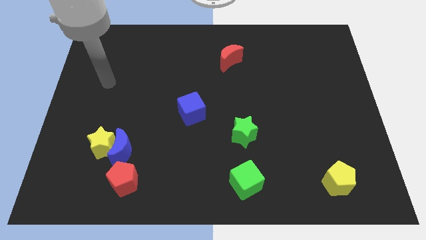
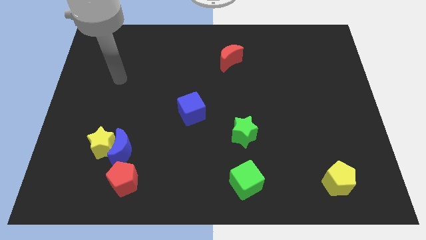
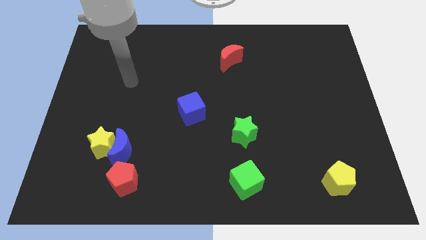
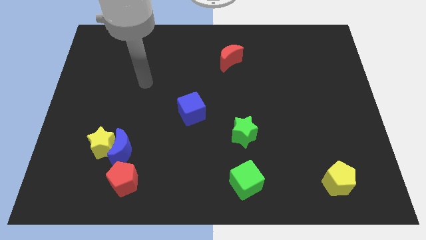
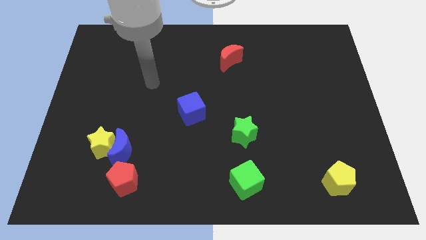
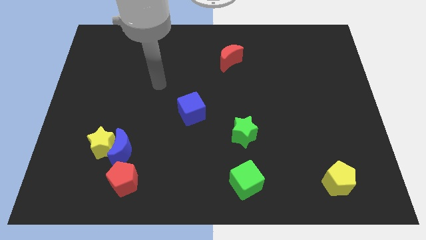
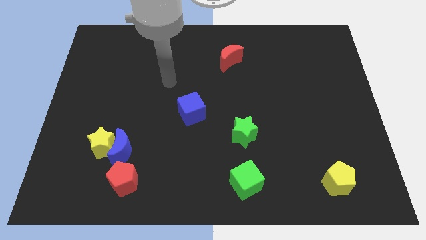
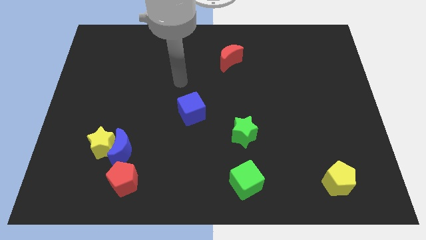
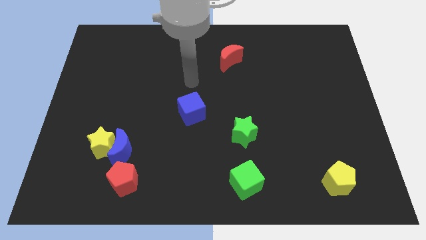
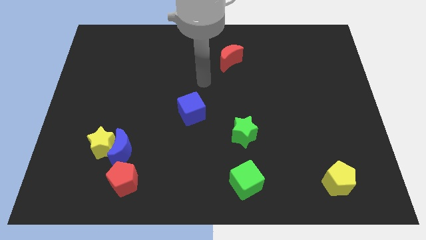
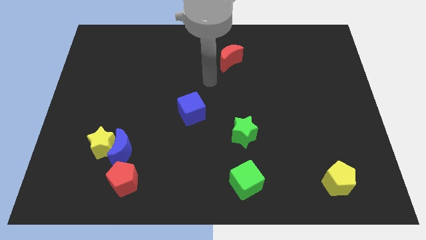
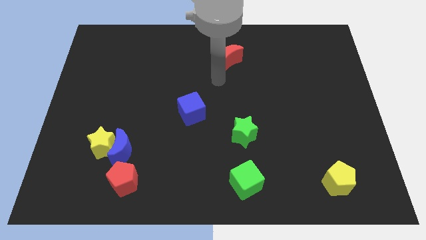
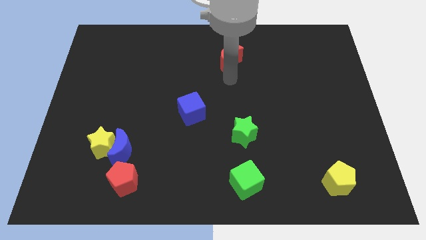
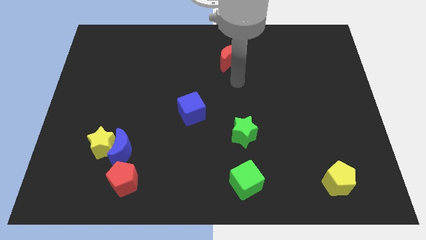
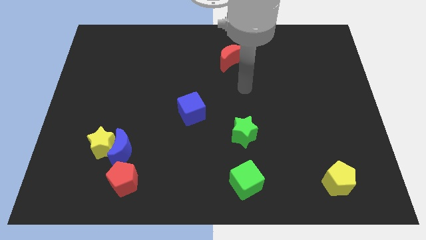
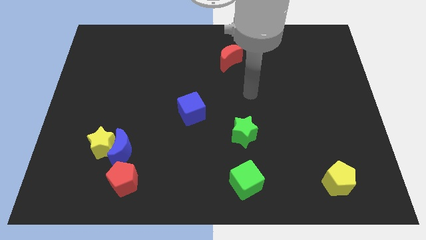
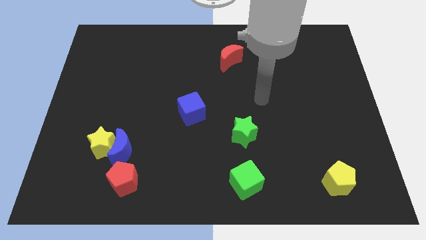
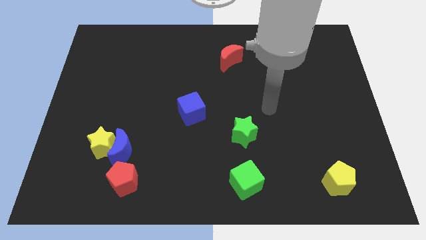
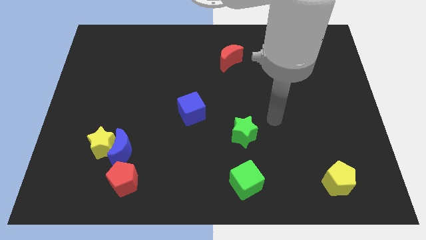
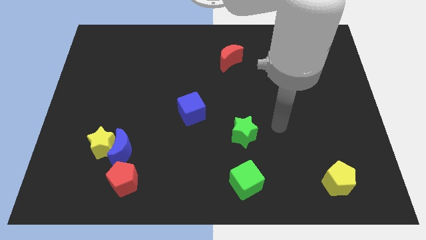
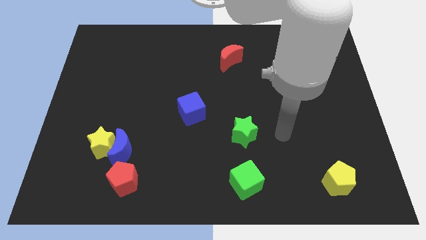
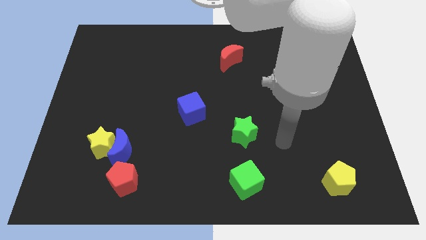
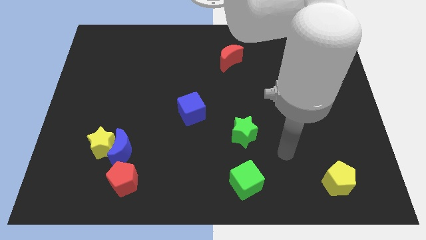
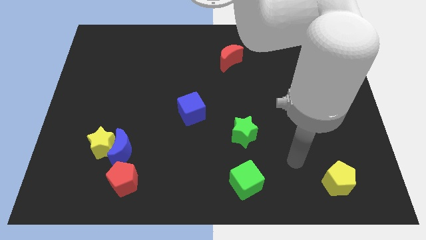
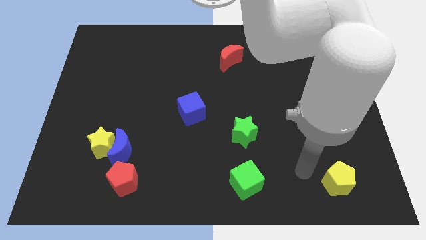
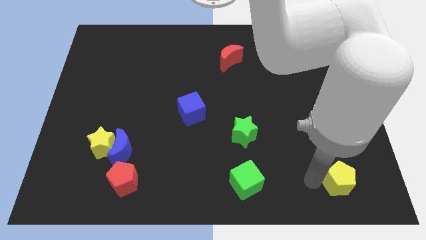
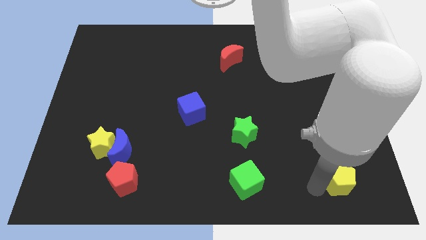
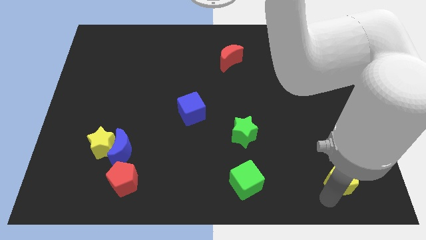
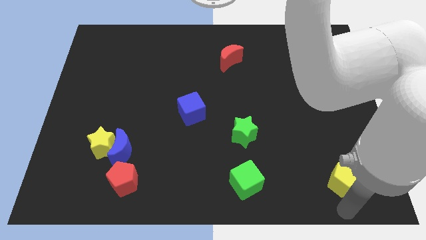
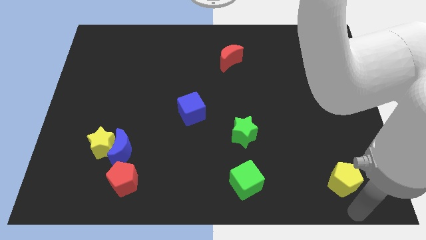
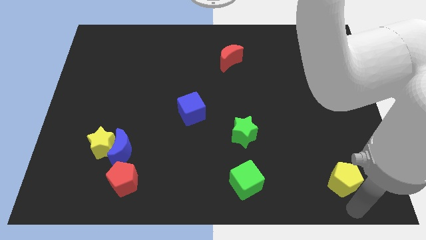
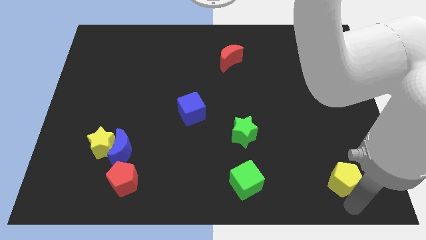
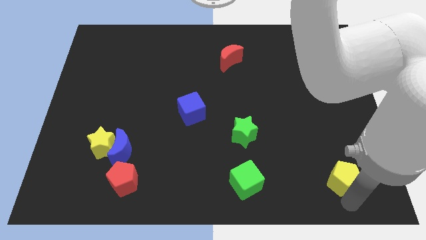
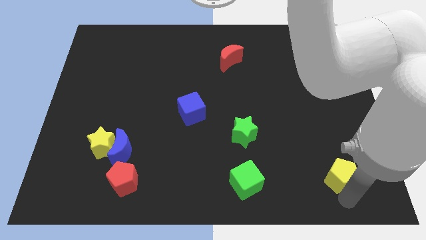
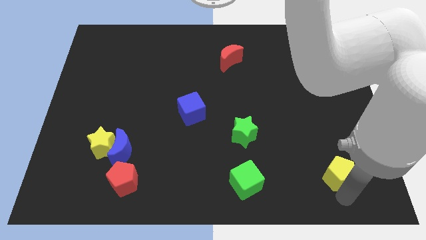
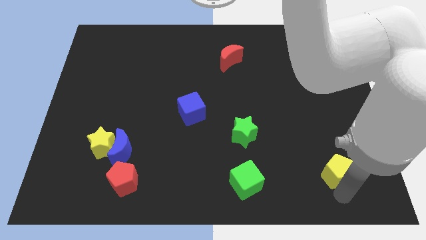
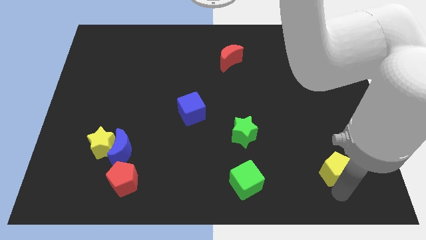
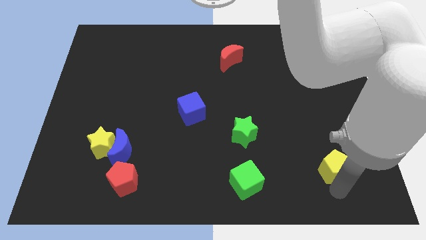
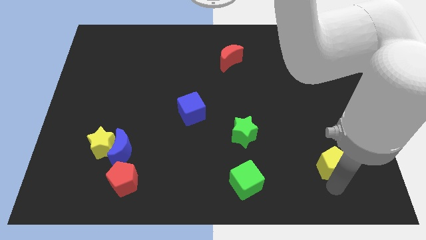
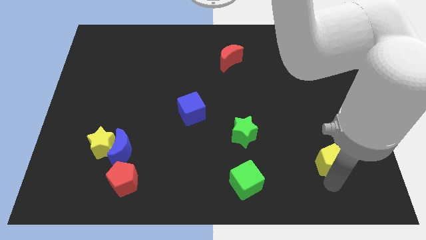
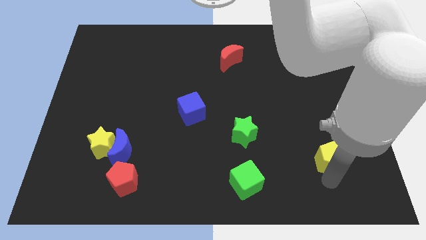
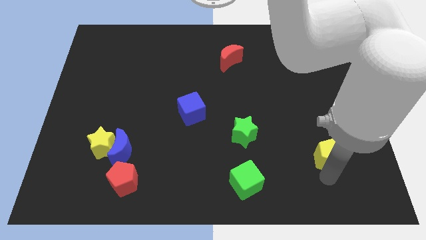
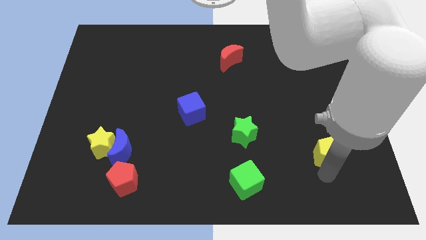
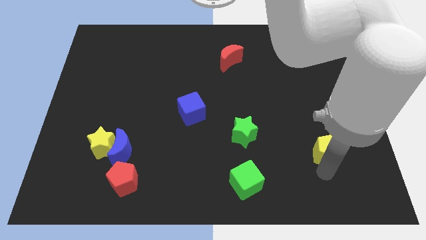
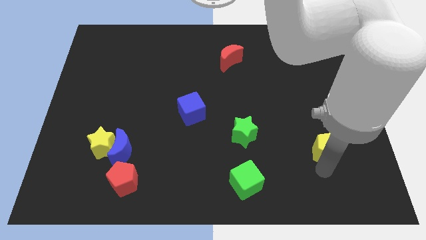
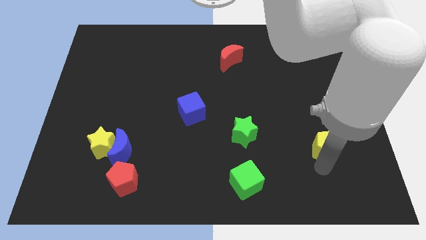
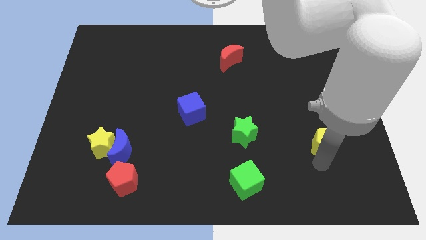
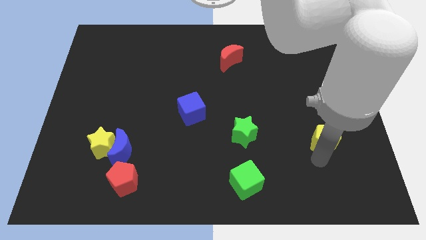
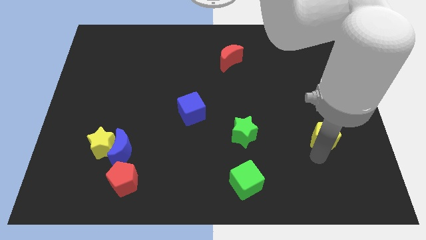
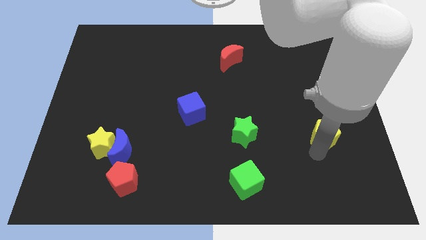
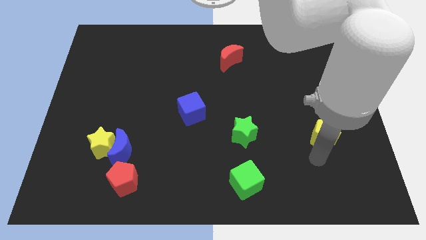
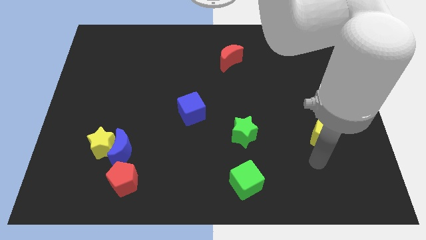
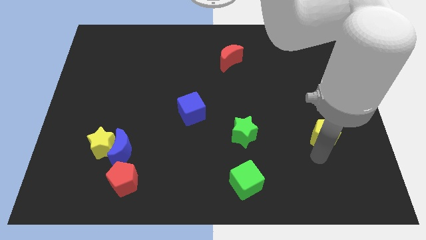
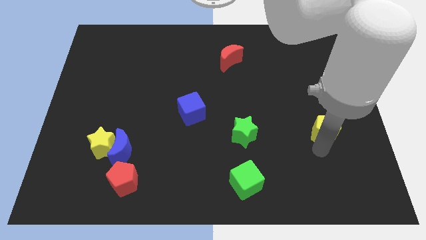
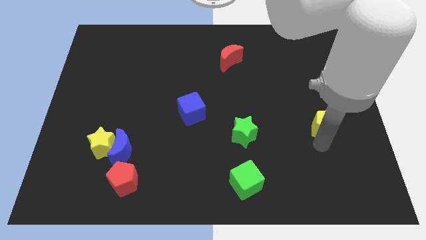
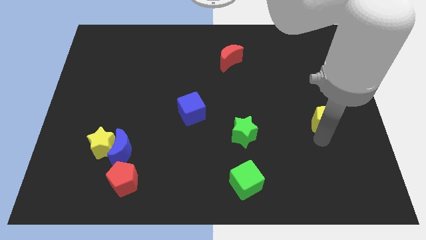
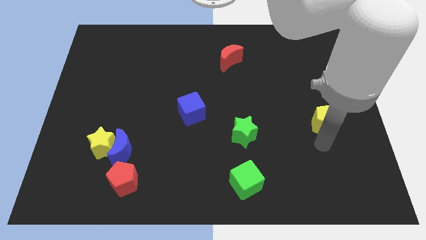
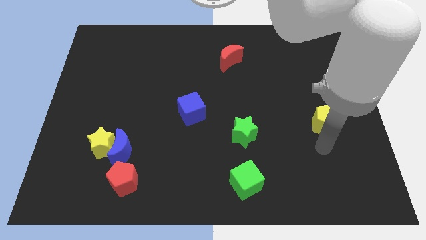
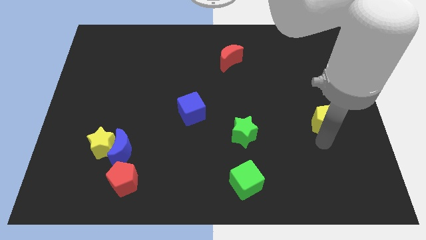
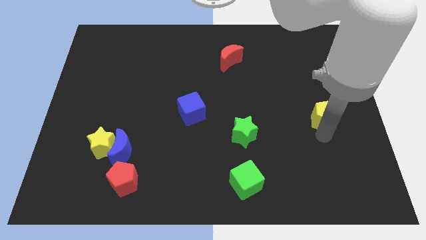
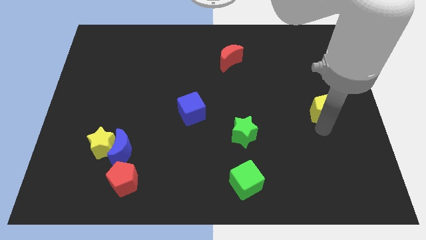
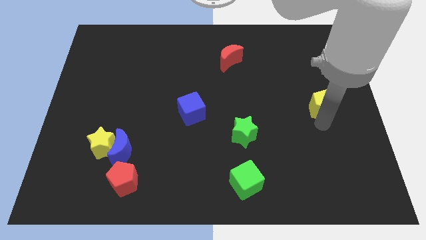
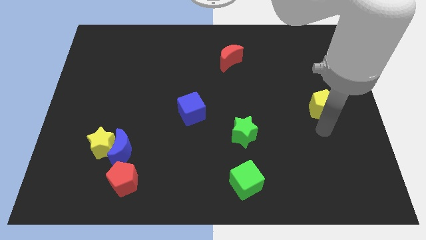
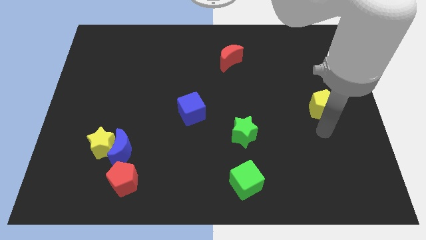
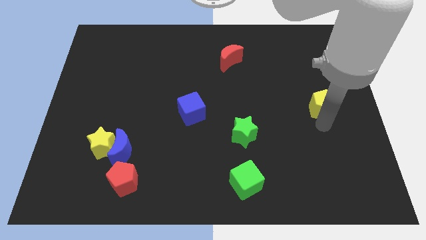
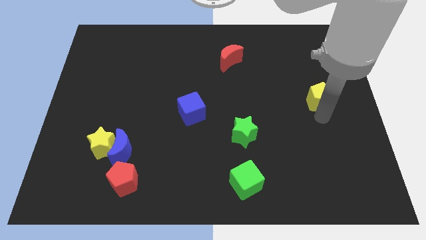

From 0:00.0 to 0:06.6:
move the yellow pentagon upwards

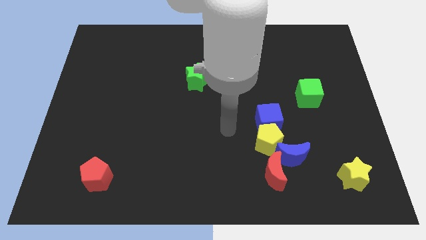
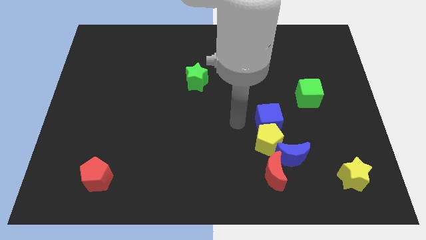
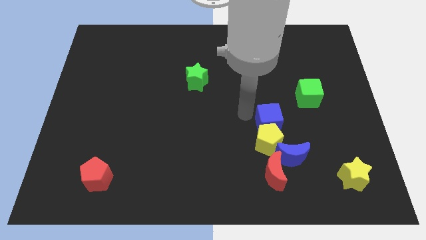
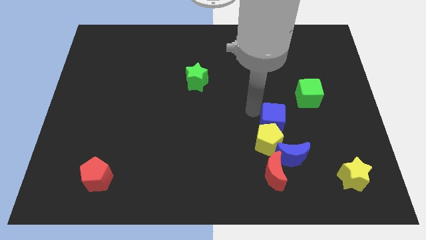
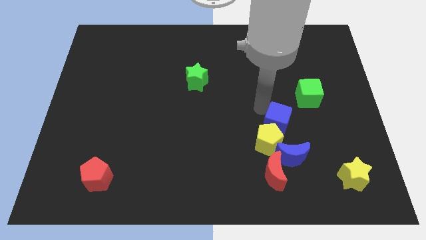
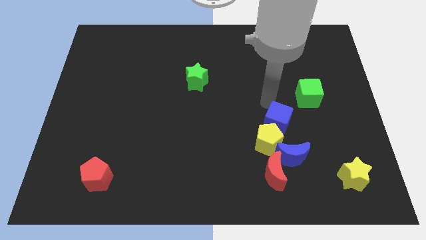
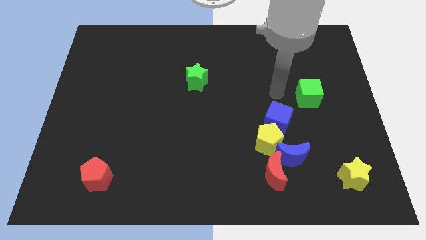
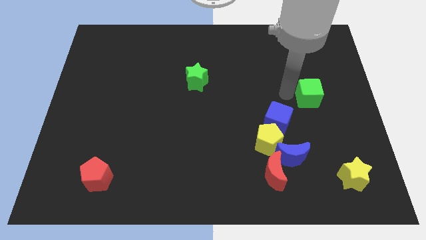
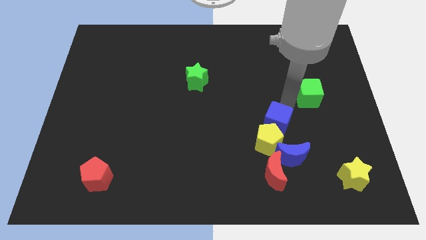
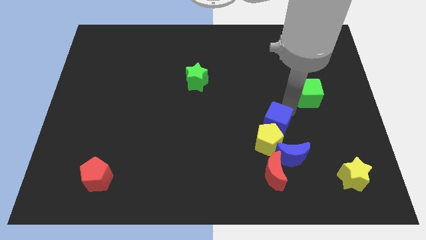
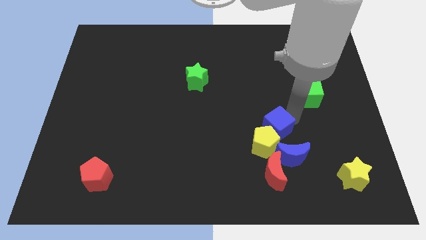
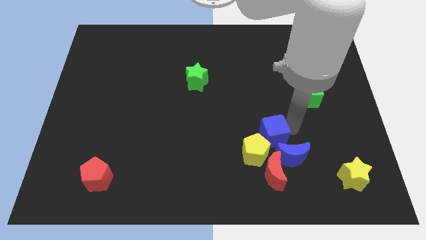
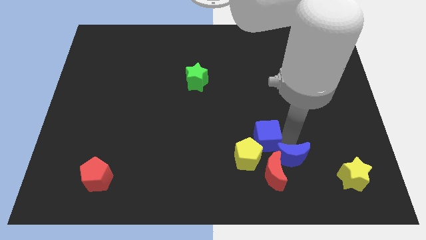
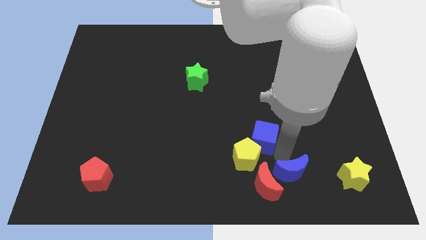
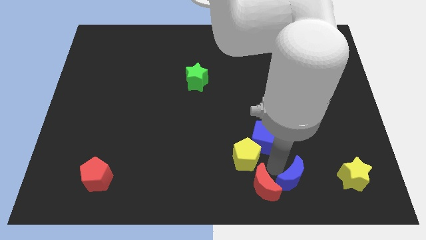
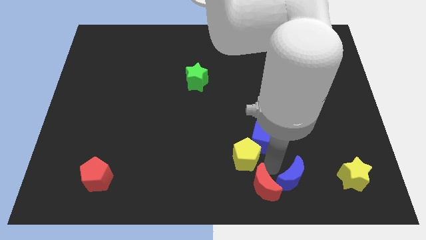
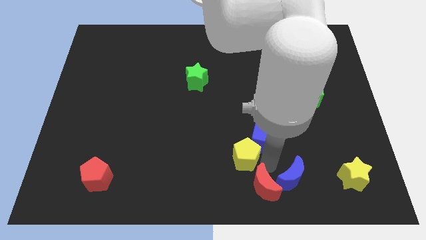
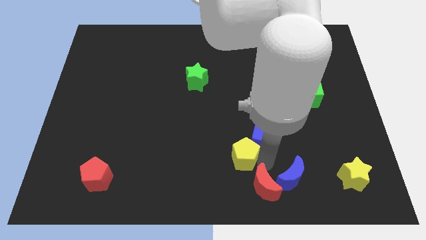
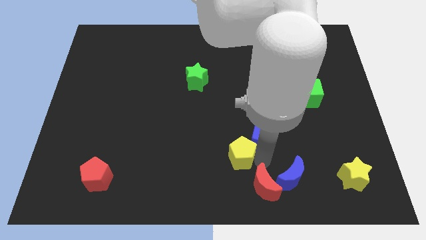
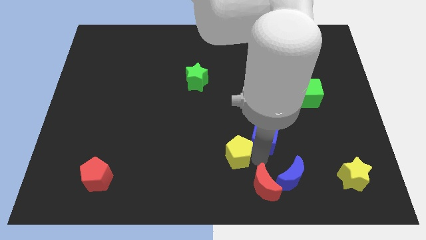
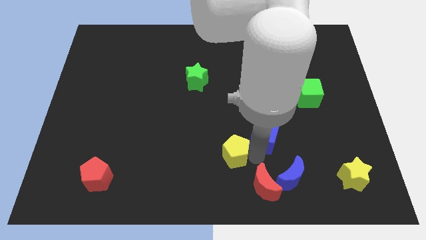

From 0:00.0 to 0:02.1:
move the yellow pentagon to the left slightly
